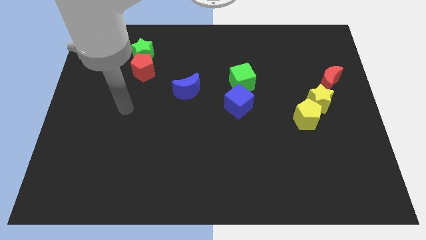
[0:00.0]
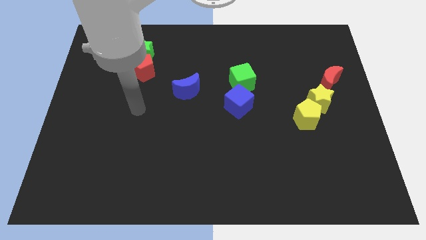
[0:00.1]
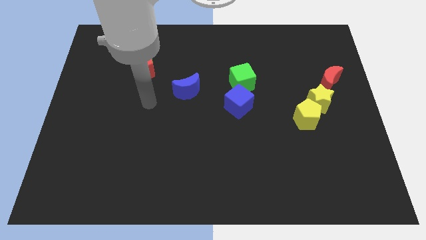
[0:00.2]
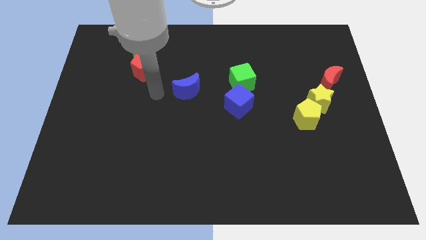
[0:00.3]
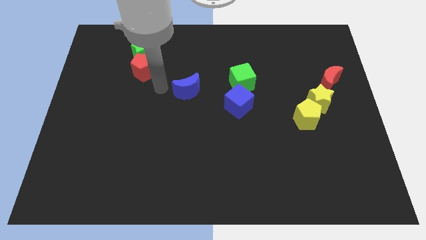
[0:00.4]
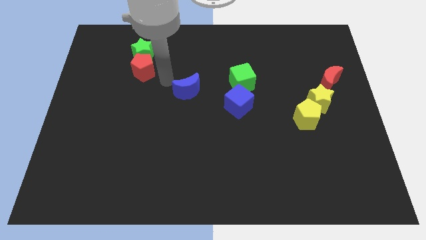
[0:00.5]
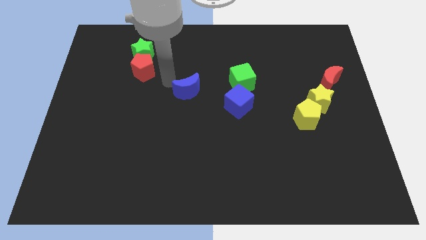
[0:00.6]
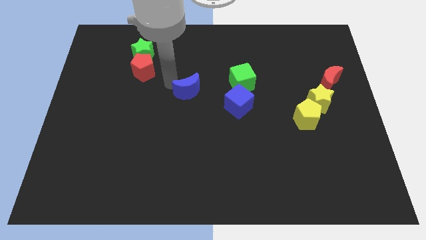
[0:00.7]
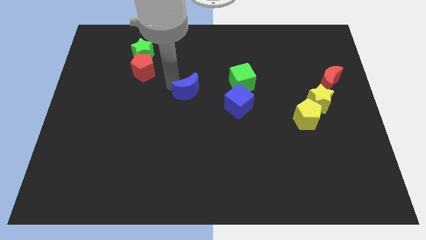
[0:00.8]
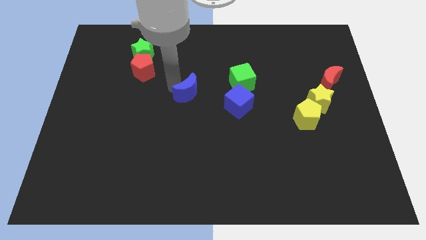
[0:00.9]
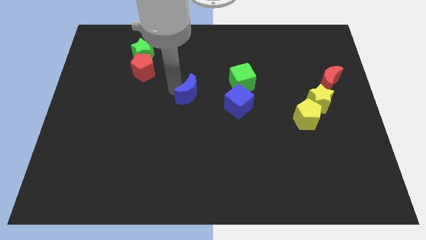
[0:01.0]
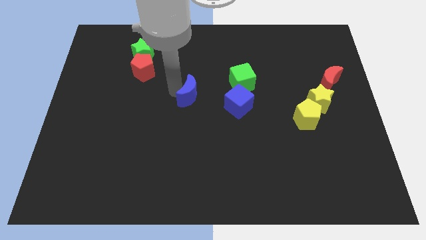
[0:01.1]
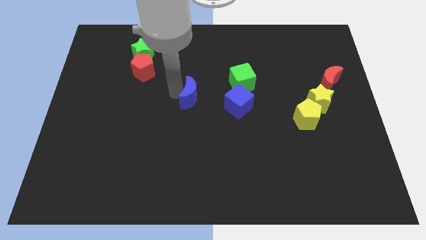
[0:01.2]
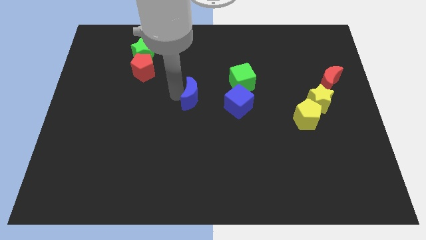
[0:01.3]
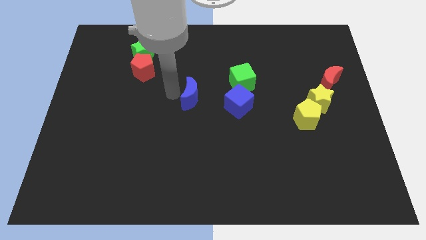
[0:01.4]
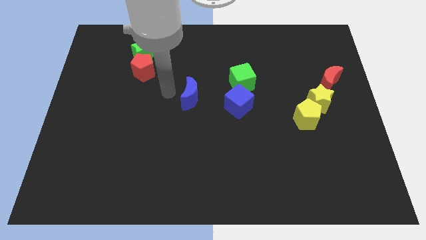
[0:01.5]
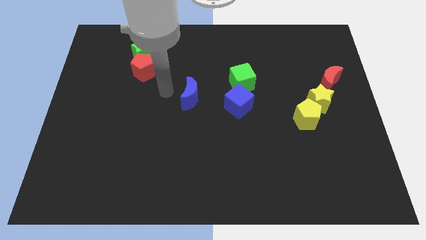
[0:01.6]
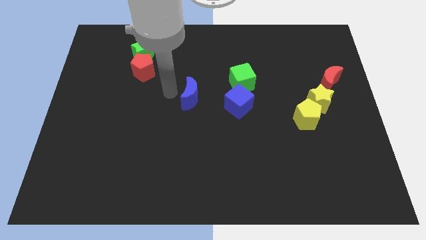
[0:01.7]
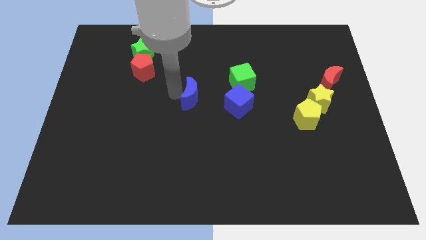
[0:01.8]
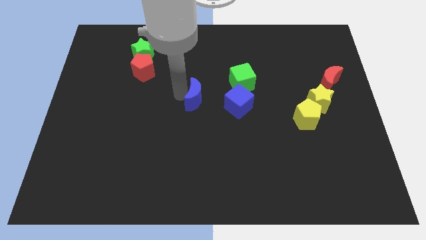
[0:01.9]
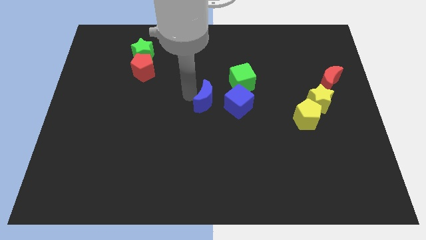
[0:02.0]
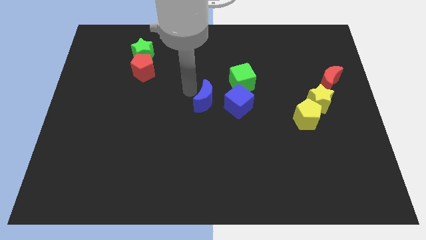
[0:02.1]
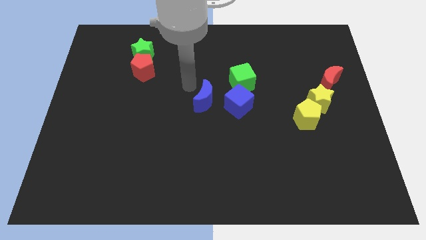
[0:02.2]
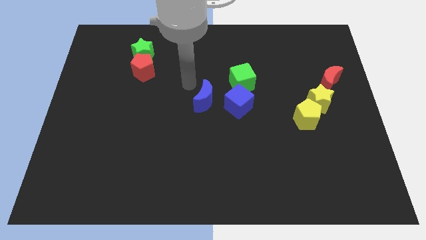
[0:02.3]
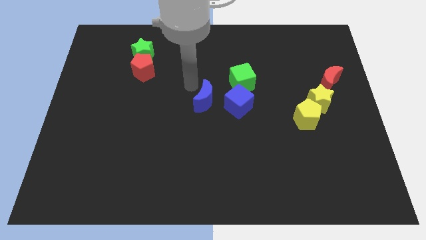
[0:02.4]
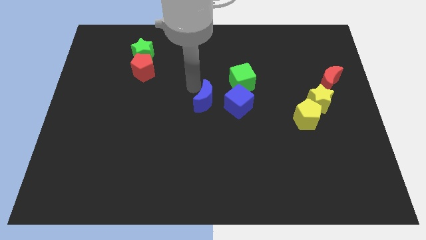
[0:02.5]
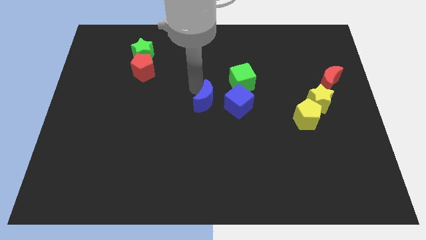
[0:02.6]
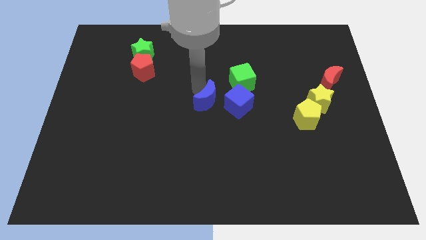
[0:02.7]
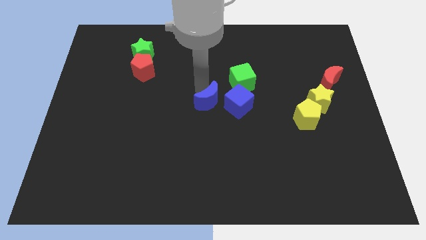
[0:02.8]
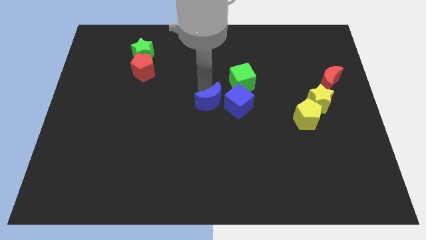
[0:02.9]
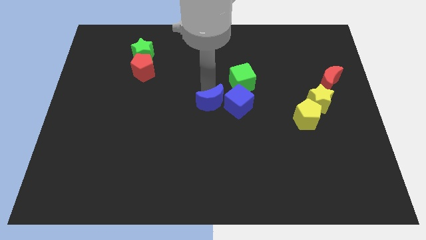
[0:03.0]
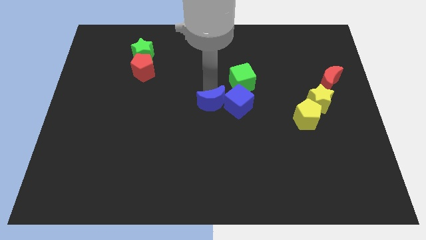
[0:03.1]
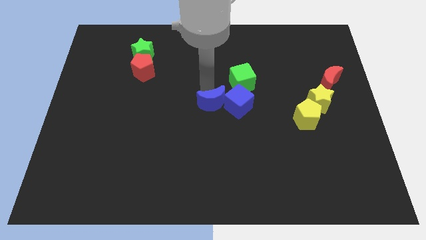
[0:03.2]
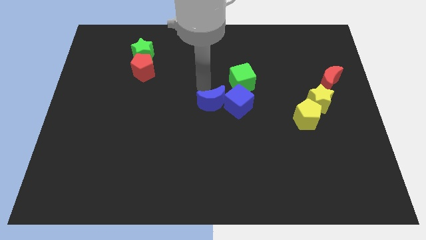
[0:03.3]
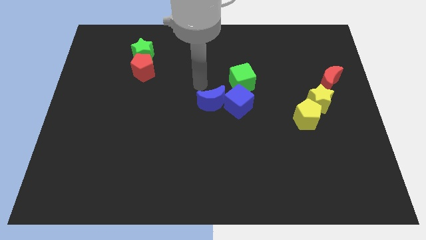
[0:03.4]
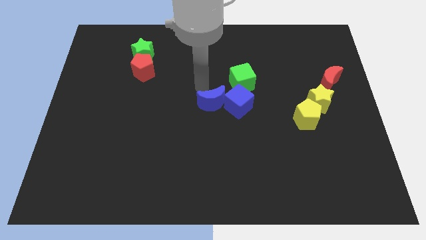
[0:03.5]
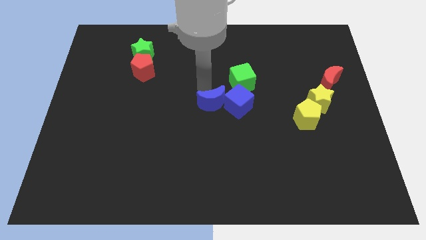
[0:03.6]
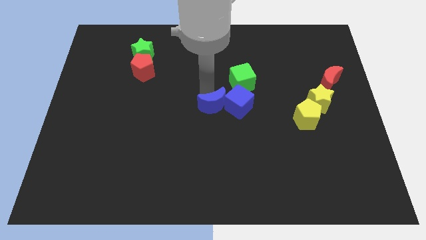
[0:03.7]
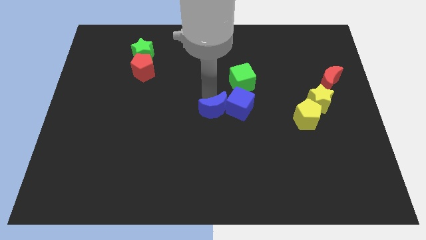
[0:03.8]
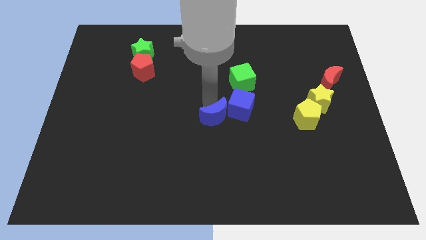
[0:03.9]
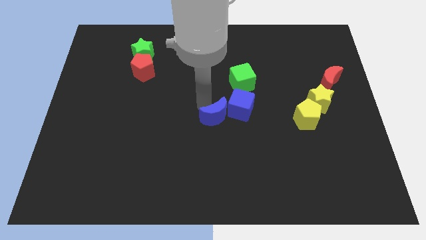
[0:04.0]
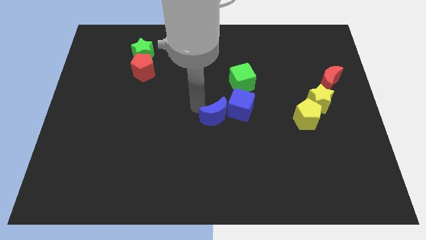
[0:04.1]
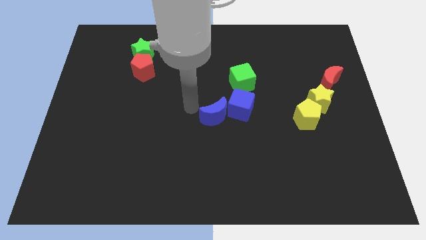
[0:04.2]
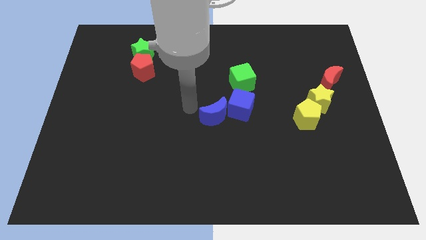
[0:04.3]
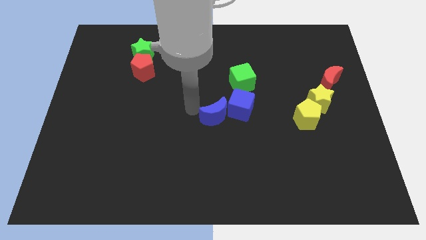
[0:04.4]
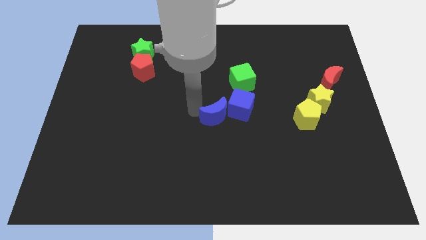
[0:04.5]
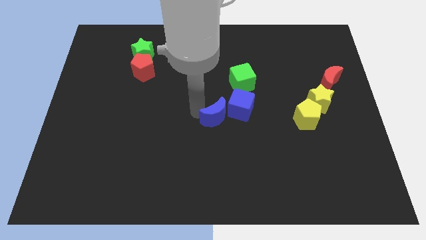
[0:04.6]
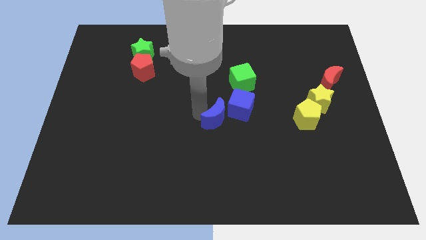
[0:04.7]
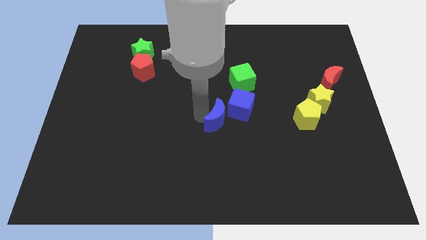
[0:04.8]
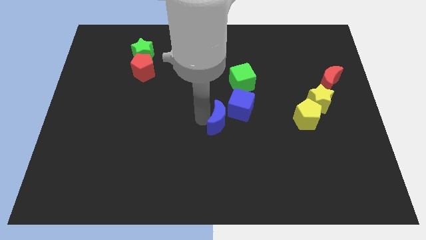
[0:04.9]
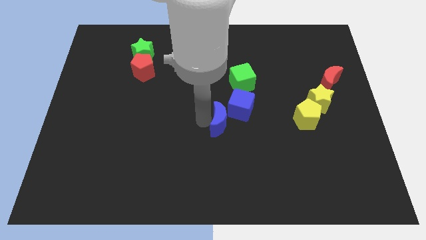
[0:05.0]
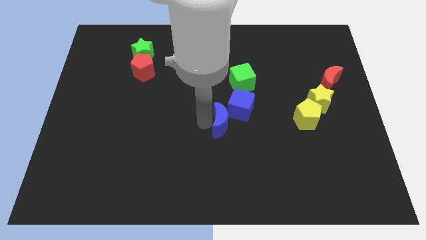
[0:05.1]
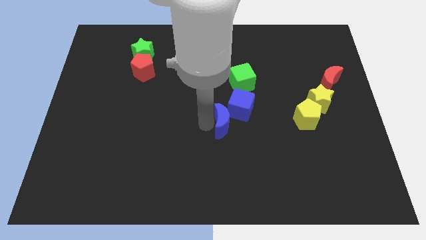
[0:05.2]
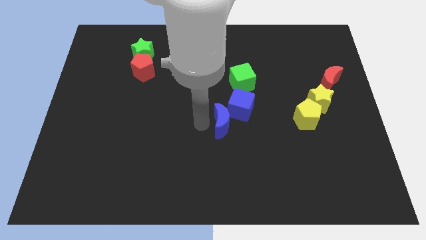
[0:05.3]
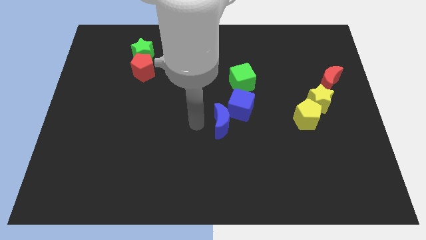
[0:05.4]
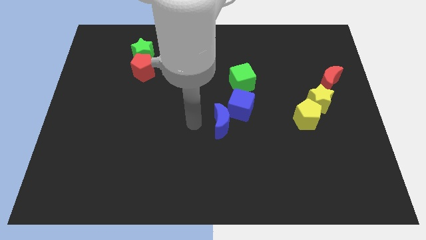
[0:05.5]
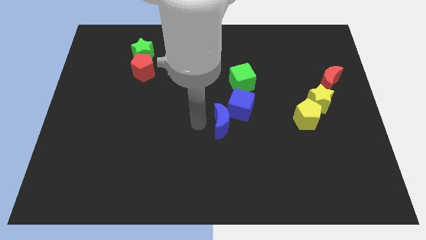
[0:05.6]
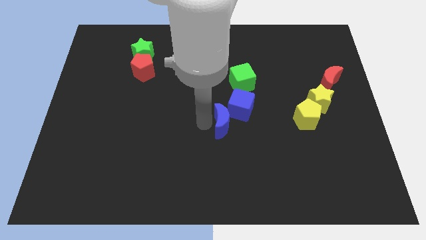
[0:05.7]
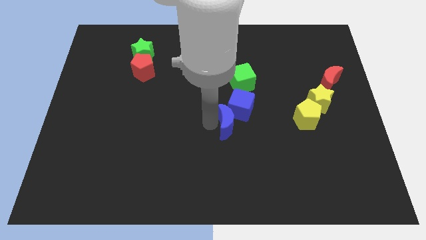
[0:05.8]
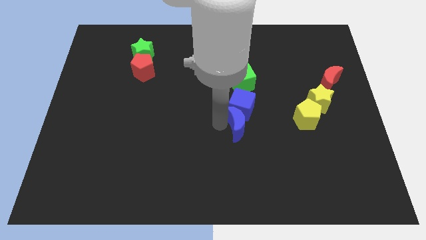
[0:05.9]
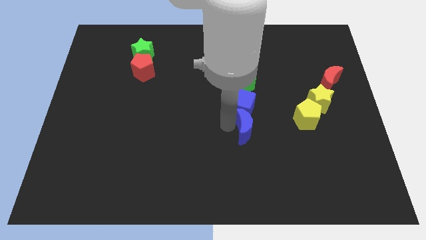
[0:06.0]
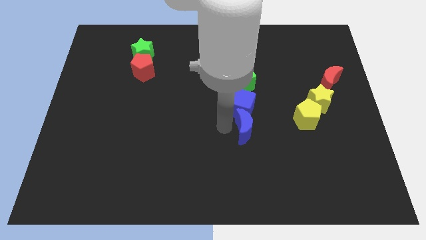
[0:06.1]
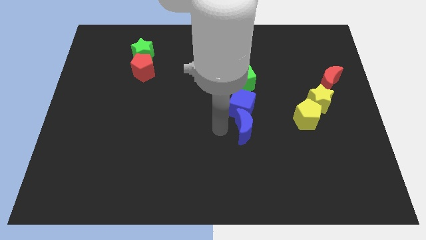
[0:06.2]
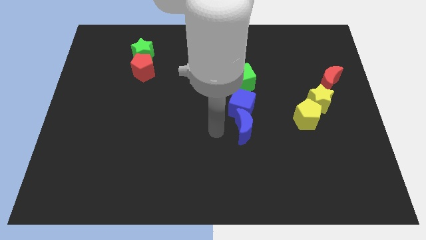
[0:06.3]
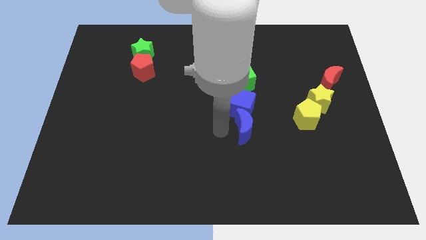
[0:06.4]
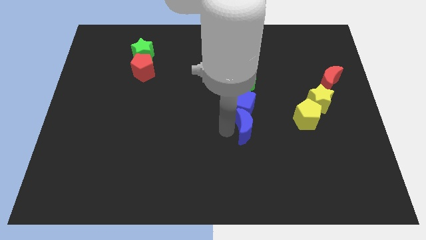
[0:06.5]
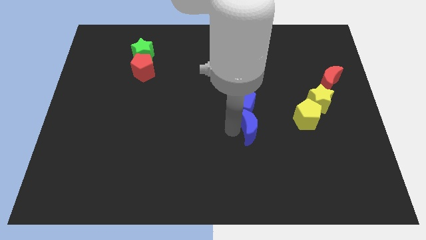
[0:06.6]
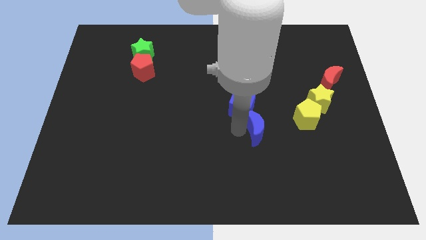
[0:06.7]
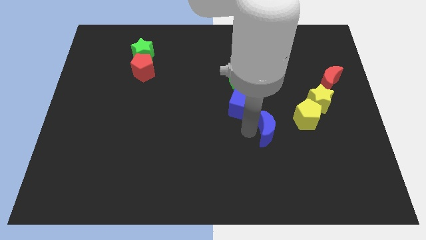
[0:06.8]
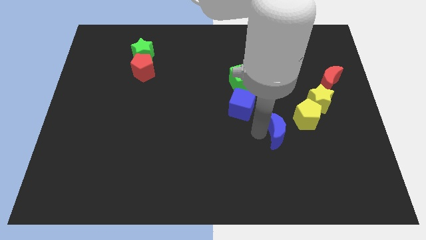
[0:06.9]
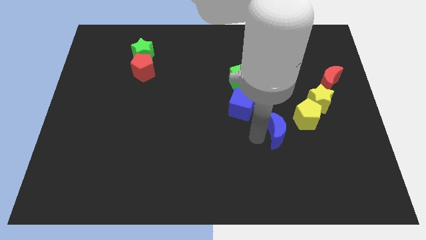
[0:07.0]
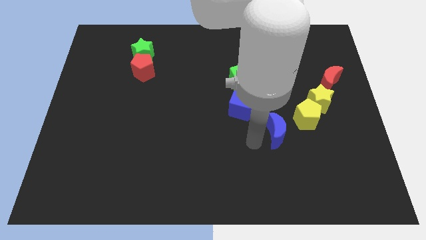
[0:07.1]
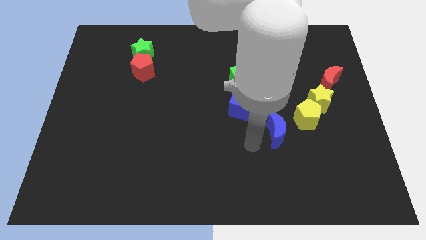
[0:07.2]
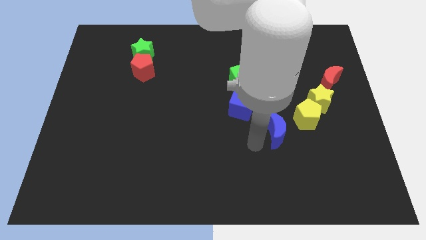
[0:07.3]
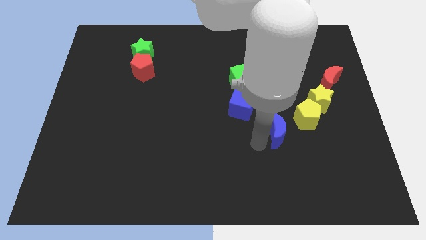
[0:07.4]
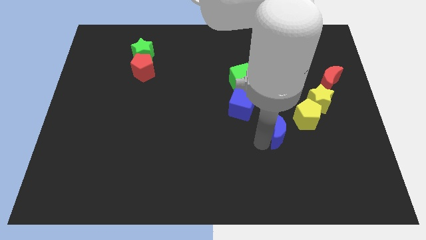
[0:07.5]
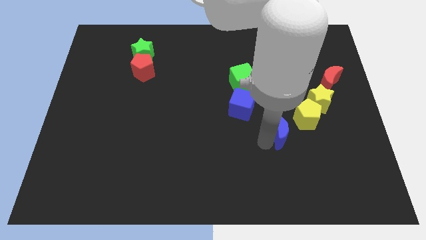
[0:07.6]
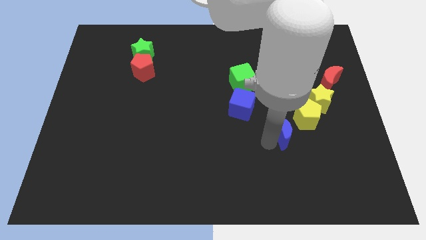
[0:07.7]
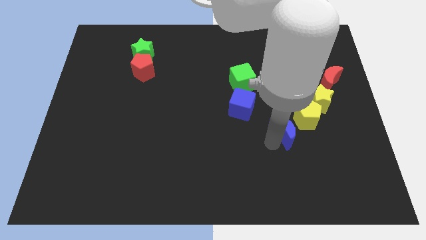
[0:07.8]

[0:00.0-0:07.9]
push the blue moon to the bottom left side of the yellow star
